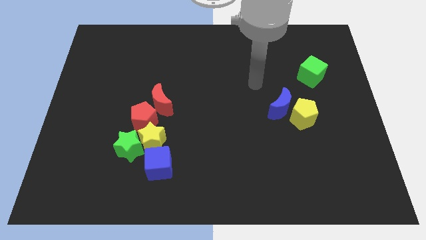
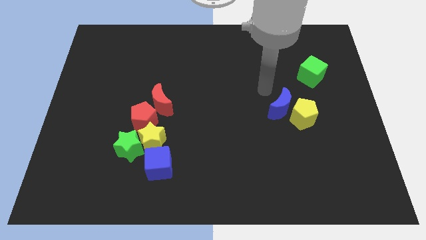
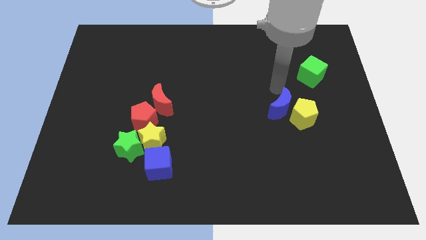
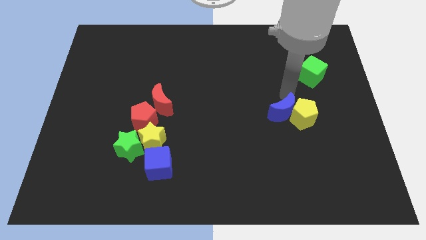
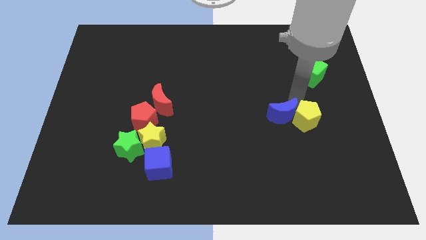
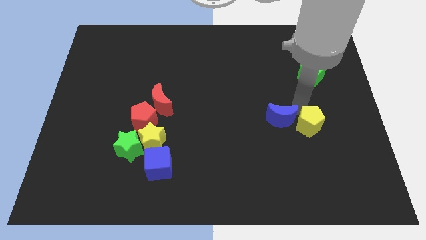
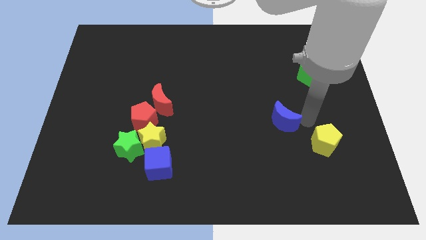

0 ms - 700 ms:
separate the blue moon from the yellow pentagon

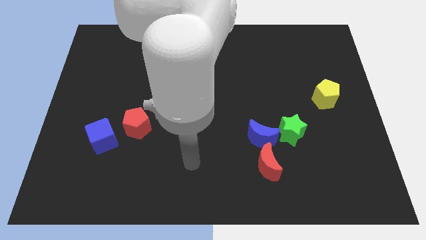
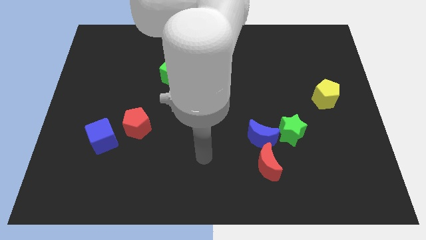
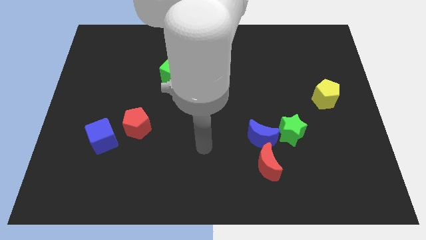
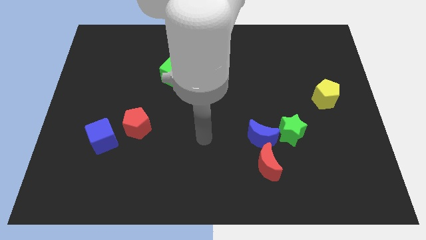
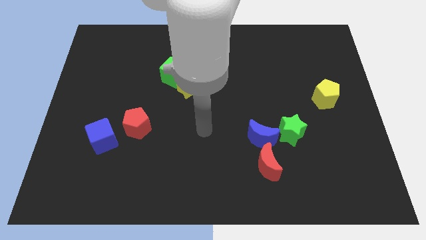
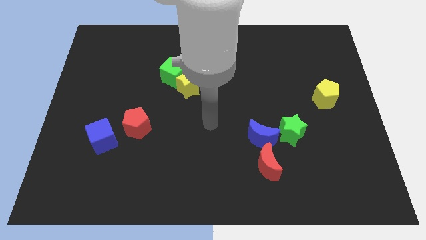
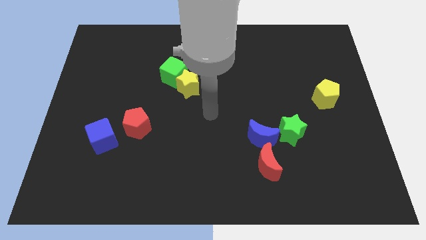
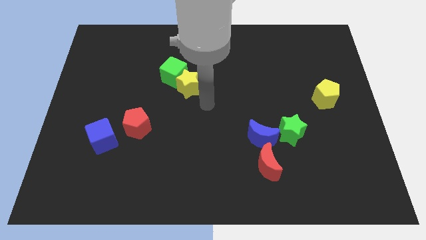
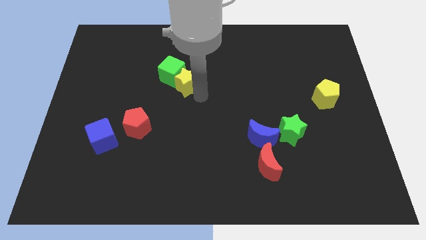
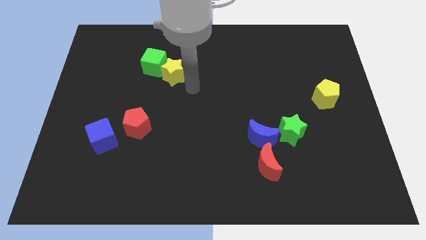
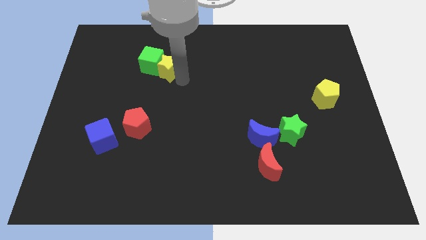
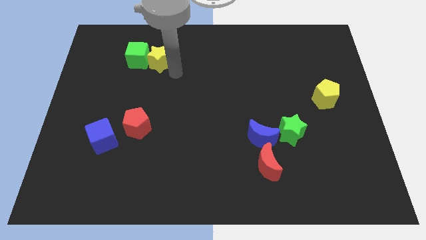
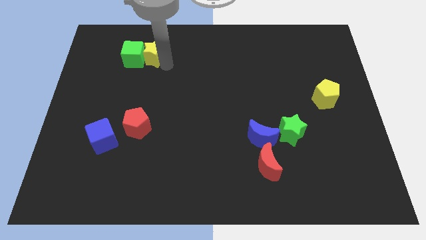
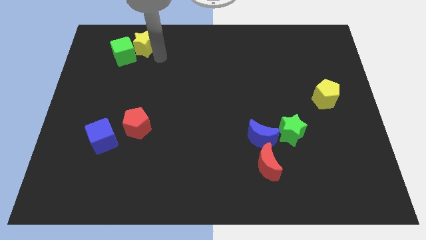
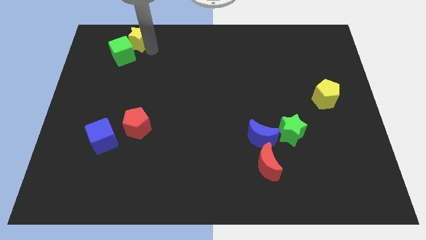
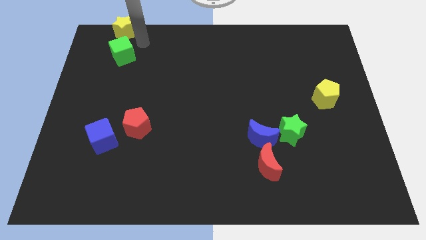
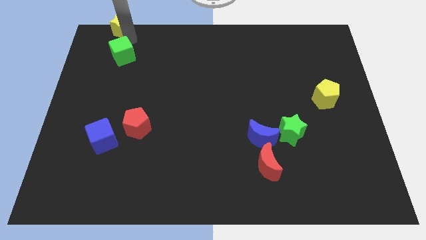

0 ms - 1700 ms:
pull the green cube apart from the yellow star

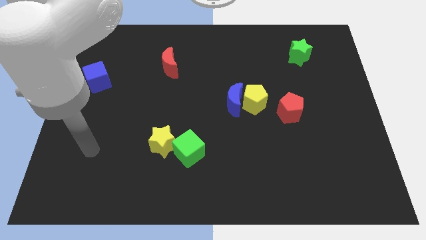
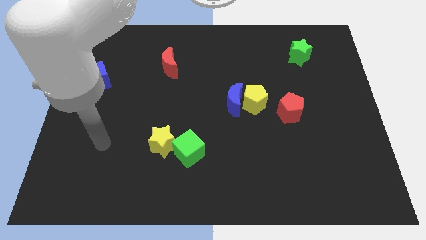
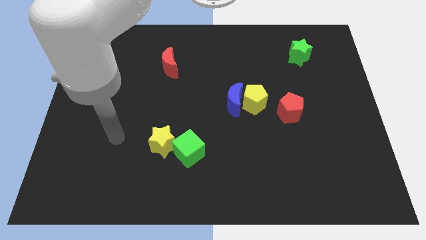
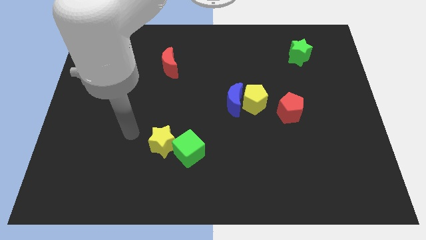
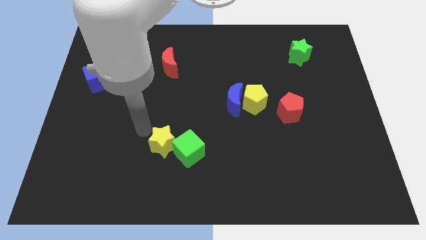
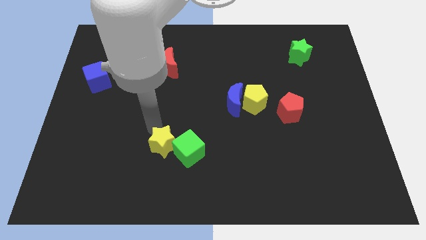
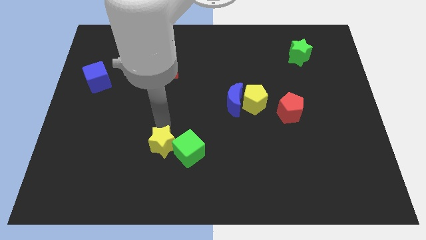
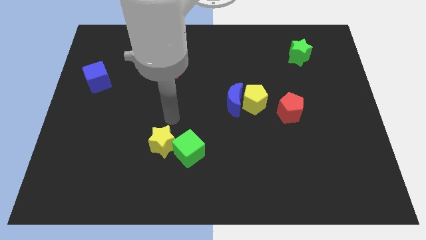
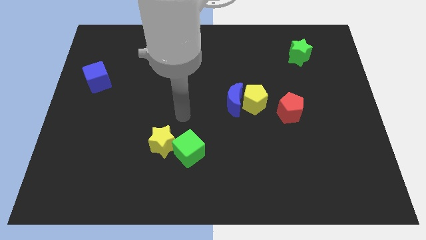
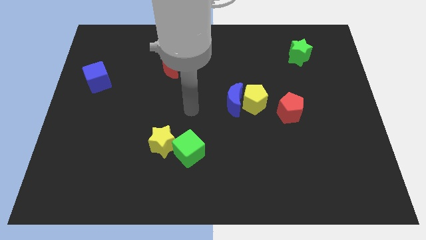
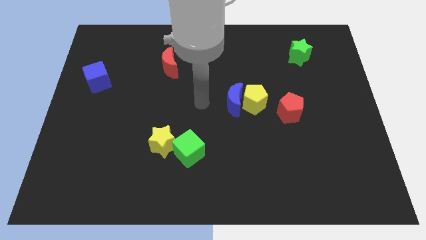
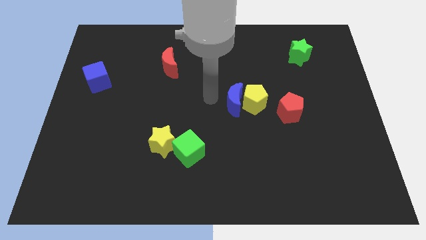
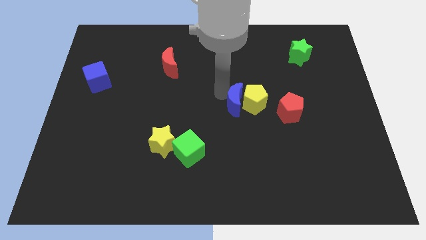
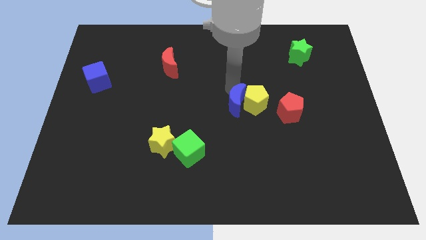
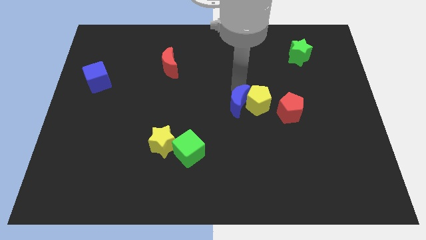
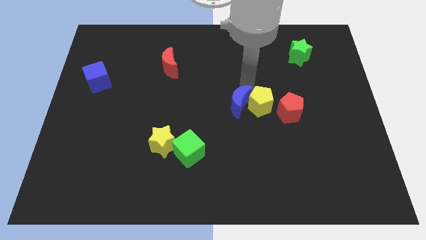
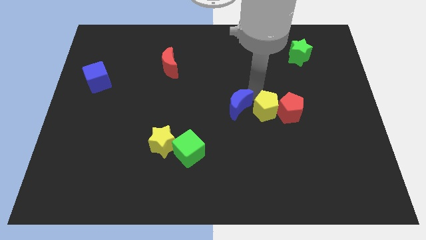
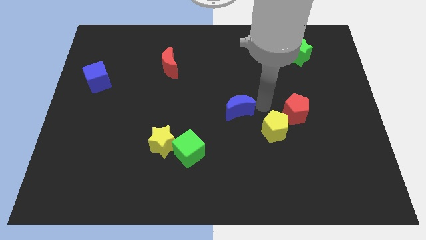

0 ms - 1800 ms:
pull the blue moon apart from the yellow pentagon

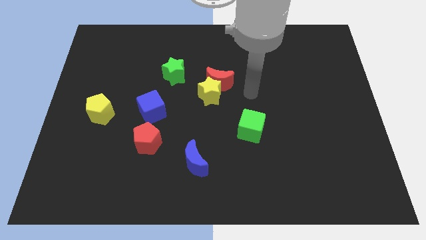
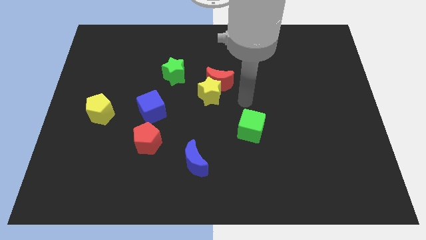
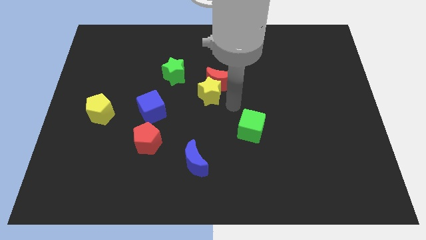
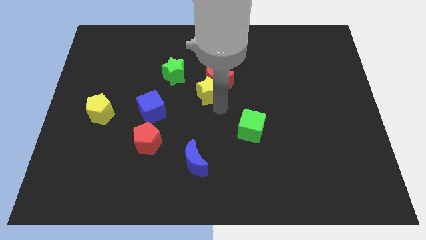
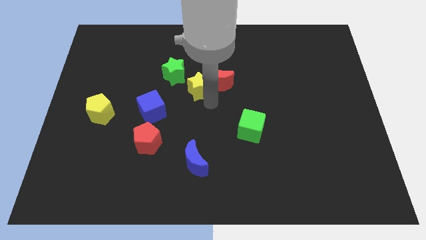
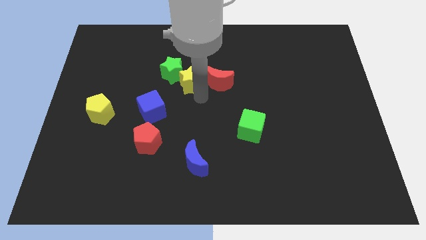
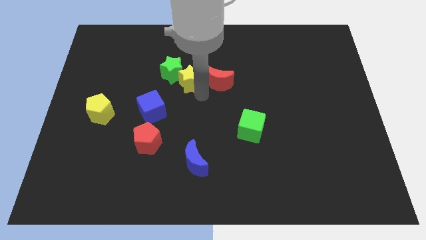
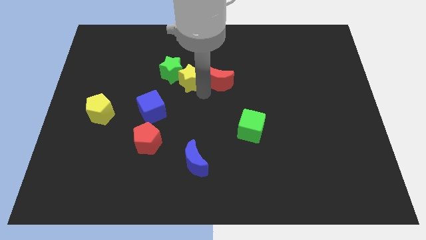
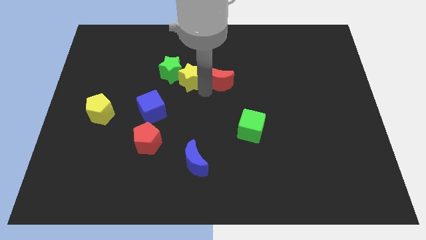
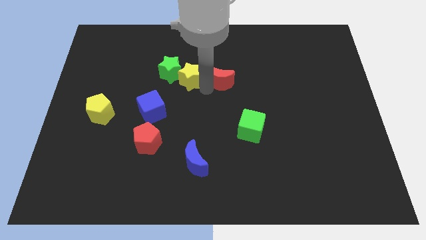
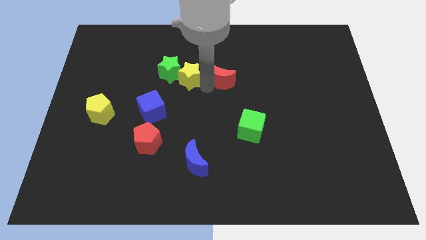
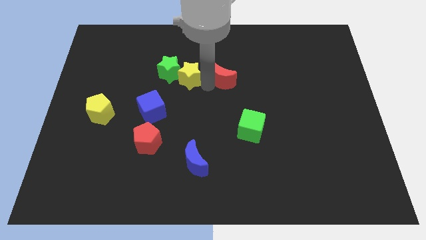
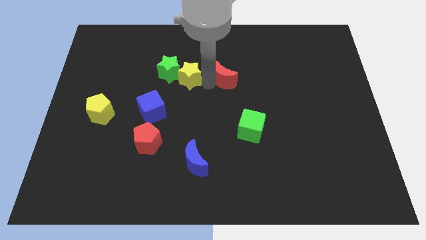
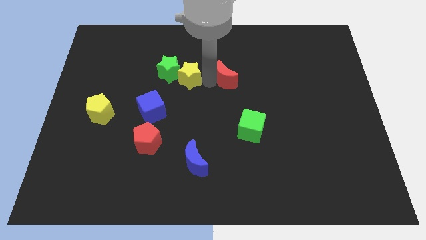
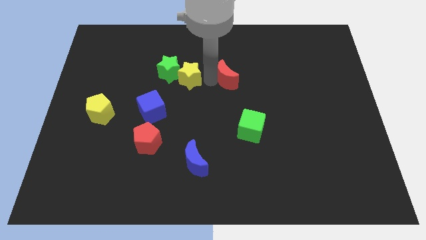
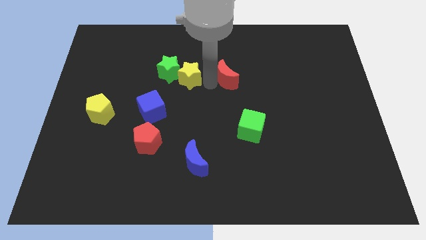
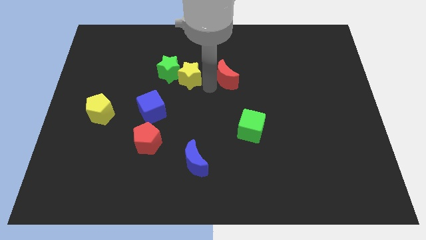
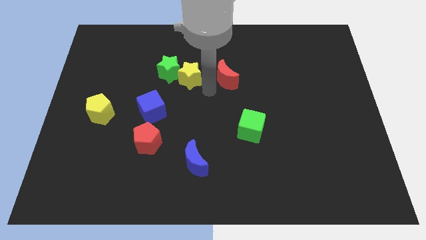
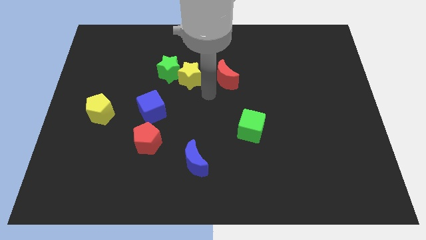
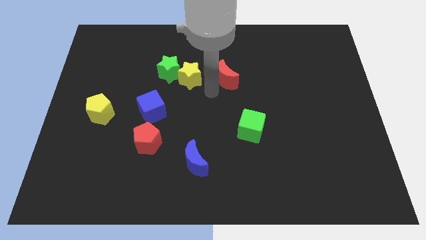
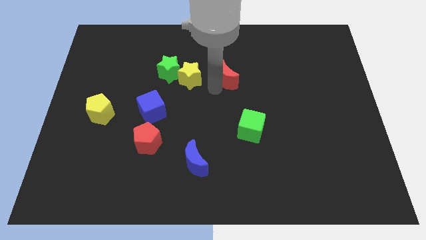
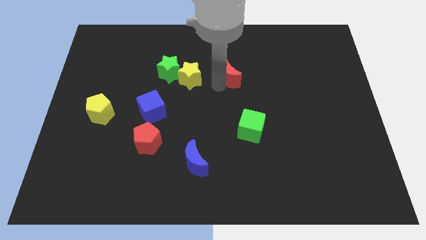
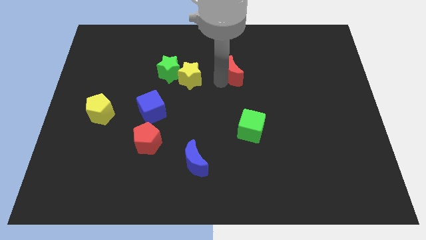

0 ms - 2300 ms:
separate the red moon from the yellow star

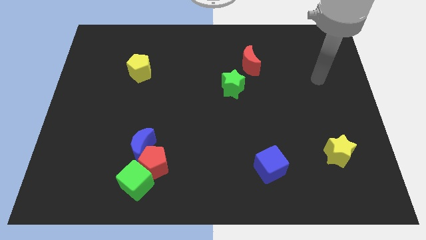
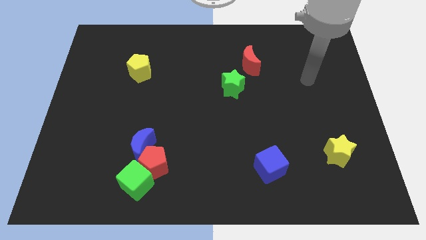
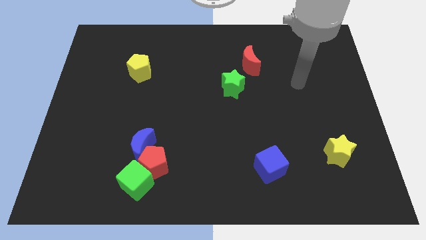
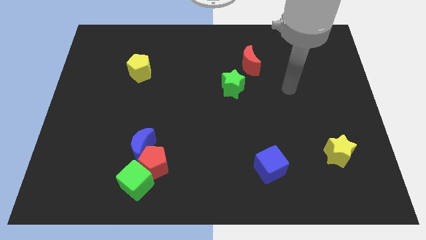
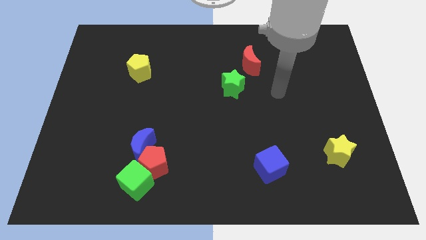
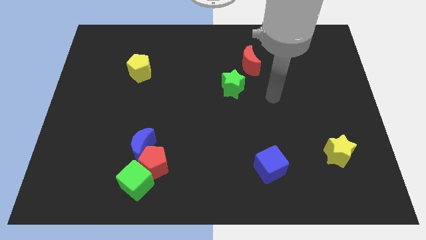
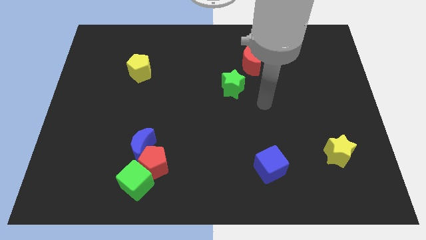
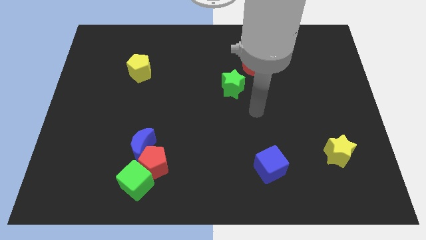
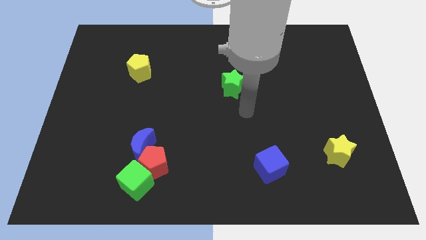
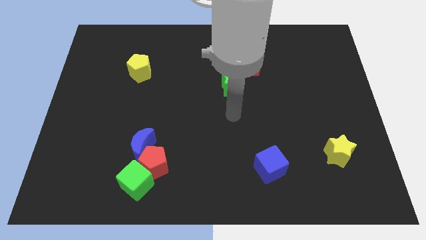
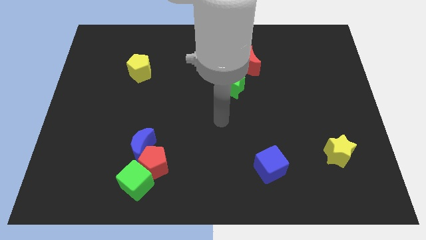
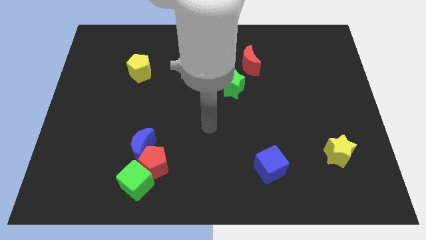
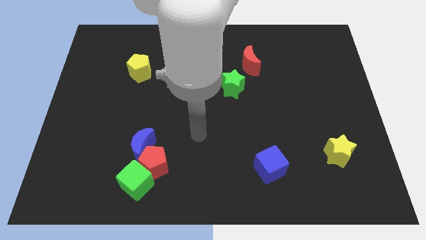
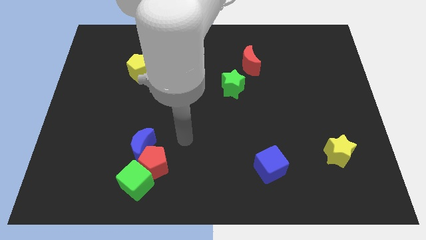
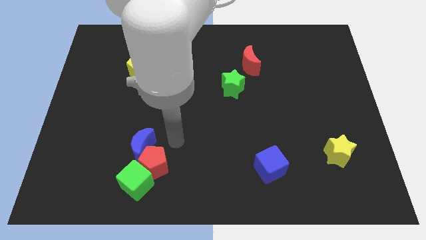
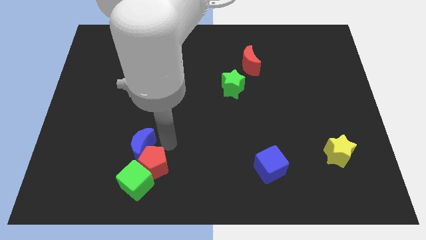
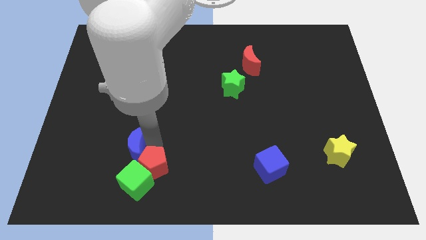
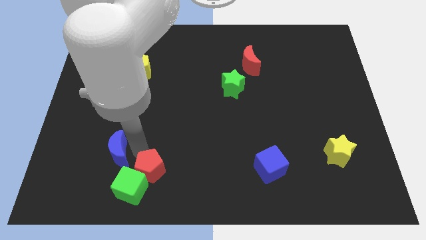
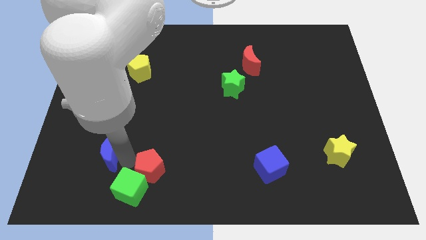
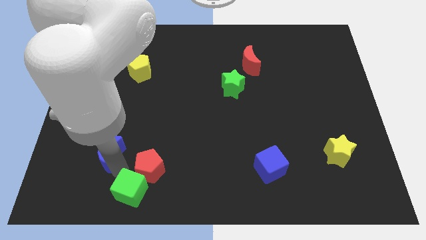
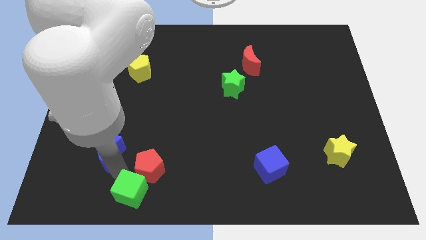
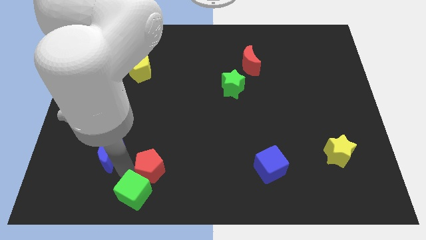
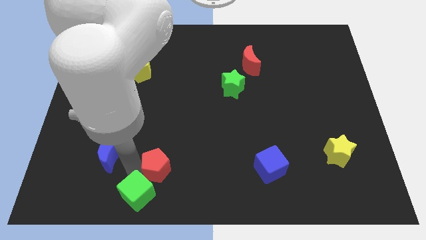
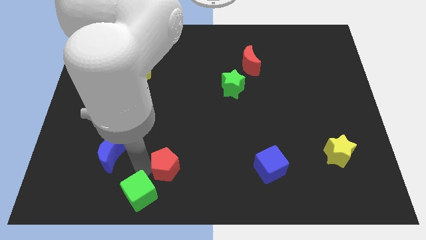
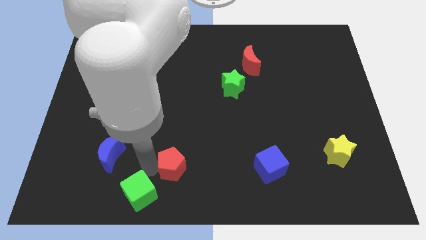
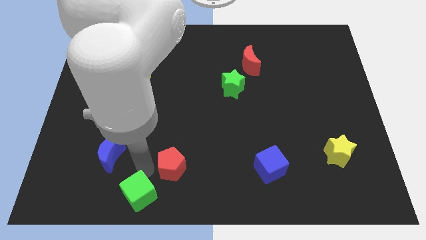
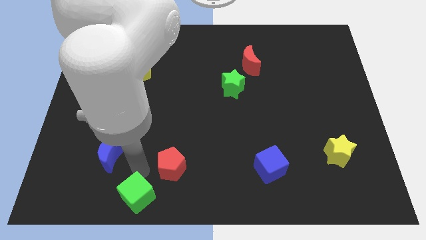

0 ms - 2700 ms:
pull the red pentagon apart from the blue moon and green cube

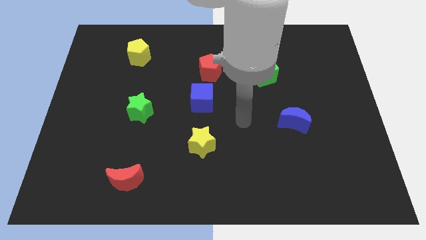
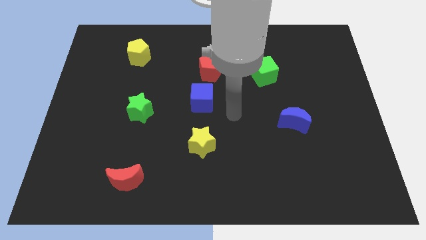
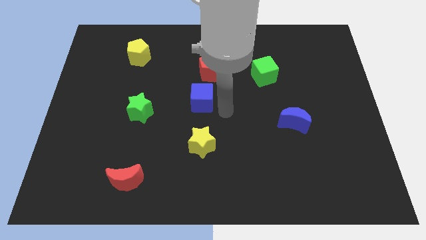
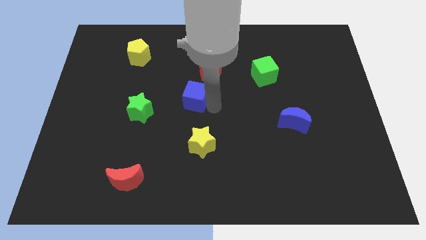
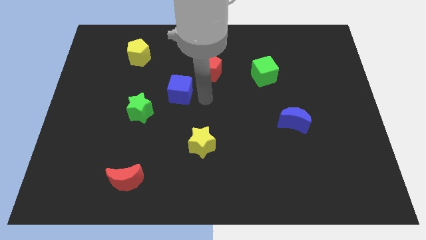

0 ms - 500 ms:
move the red pentagon away from the blue cube
